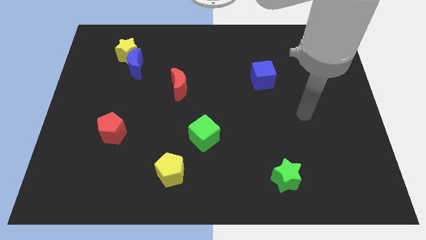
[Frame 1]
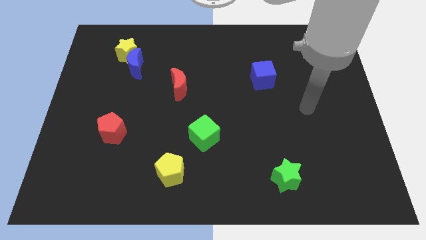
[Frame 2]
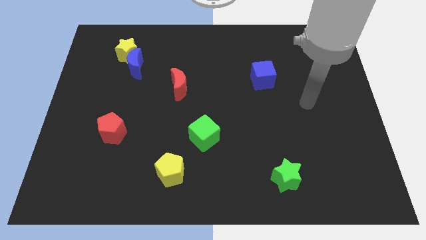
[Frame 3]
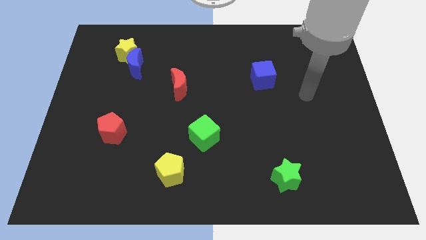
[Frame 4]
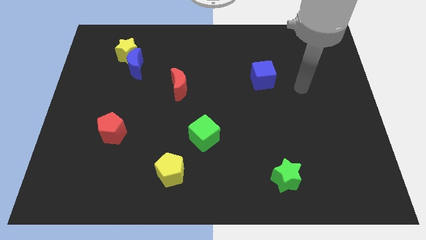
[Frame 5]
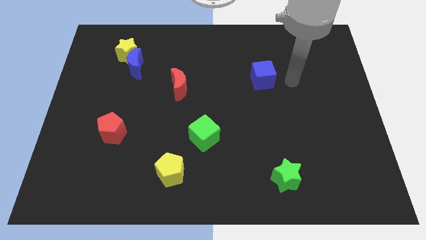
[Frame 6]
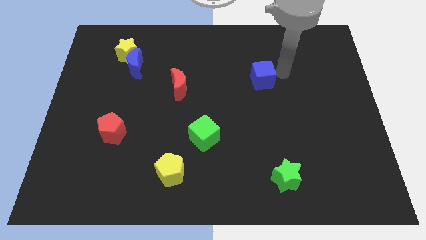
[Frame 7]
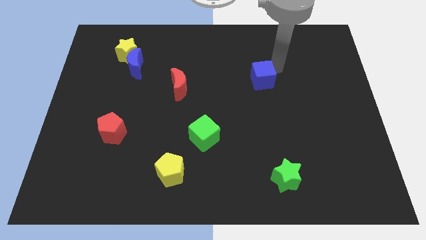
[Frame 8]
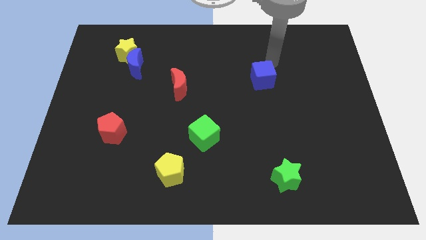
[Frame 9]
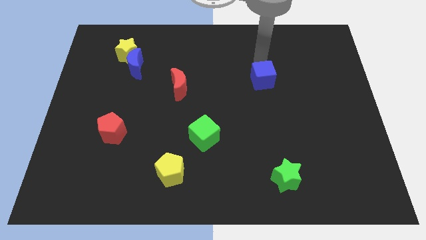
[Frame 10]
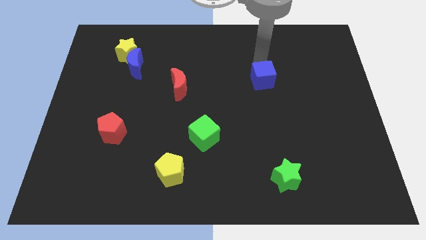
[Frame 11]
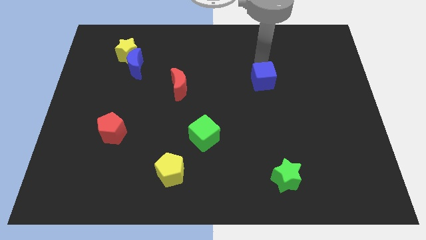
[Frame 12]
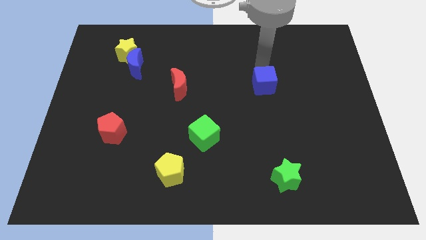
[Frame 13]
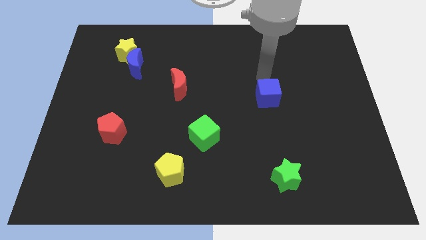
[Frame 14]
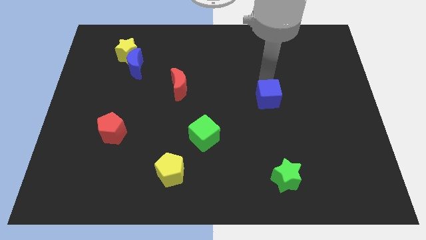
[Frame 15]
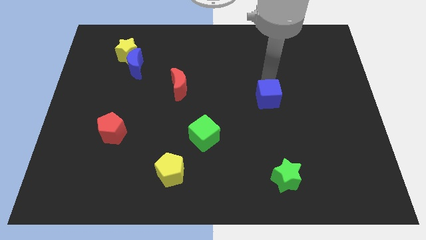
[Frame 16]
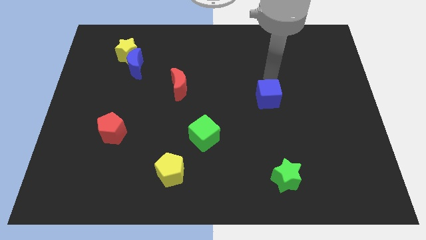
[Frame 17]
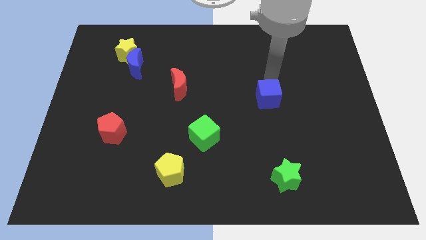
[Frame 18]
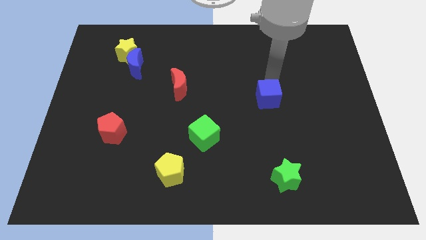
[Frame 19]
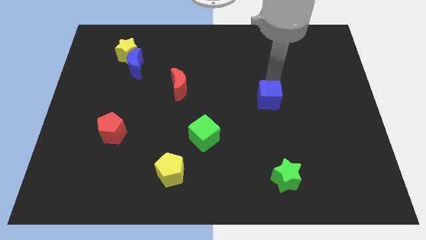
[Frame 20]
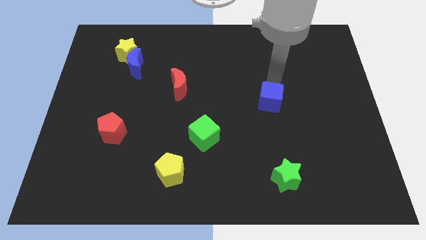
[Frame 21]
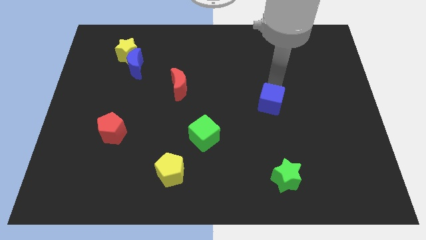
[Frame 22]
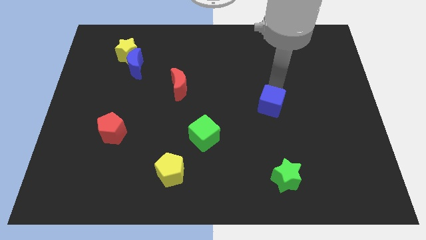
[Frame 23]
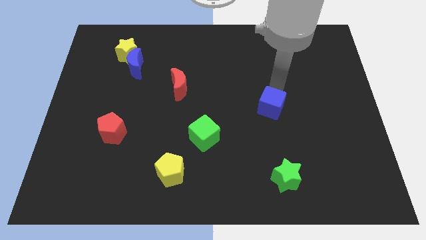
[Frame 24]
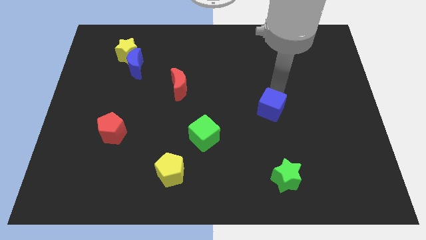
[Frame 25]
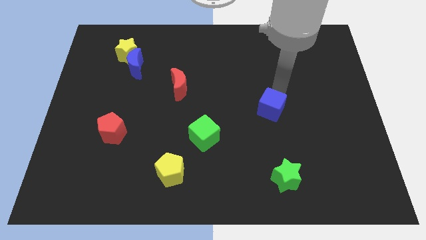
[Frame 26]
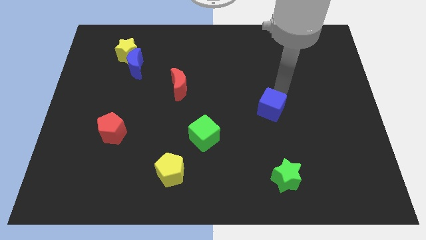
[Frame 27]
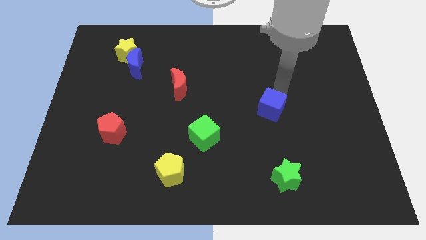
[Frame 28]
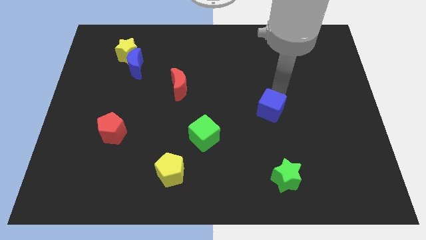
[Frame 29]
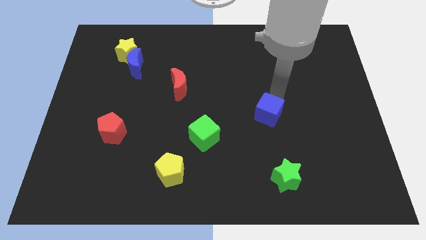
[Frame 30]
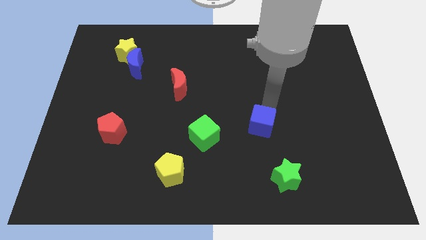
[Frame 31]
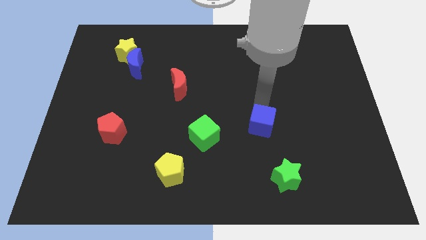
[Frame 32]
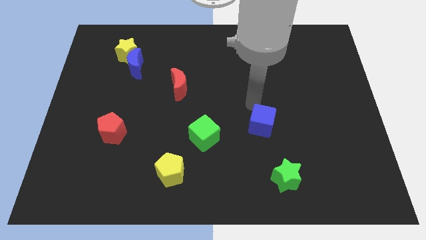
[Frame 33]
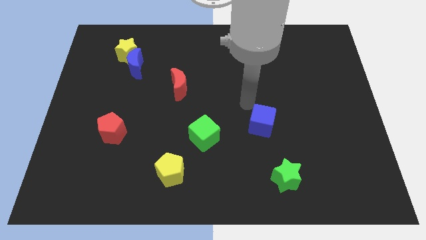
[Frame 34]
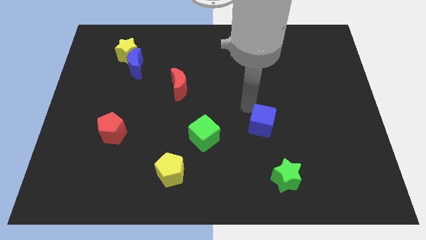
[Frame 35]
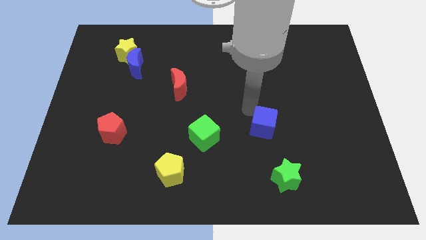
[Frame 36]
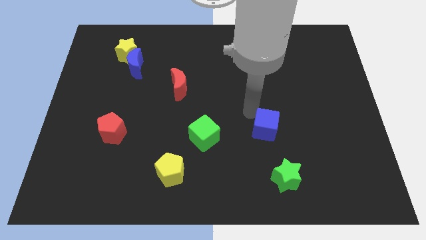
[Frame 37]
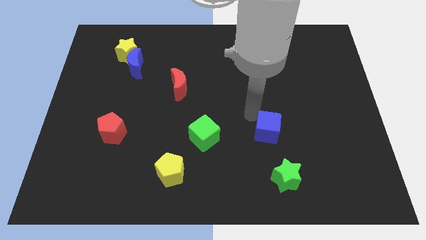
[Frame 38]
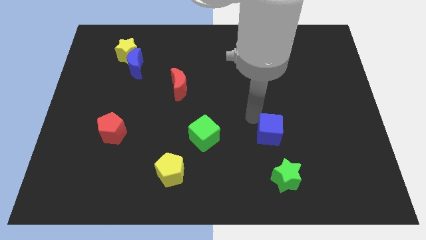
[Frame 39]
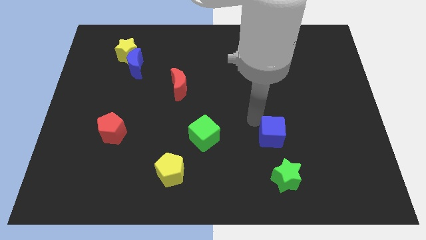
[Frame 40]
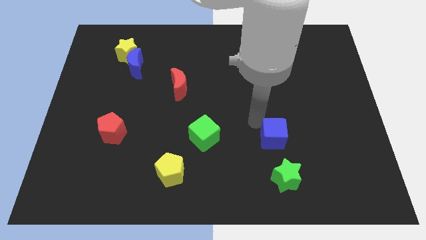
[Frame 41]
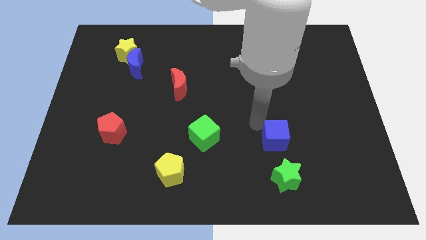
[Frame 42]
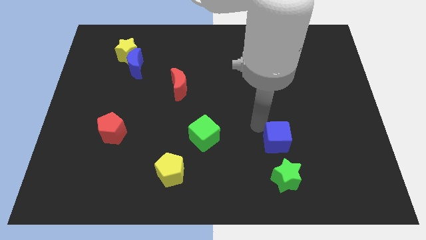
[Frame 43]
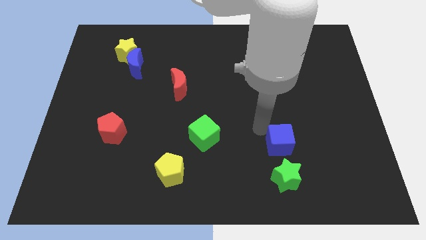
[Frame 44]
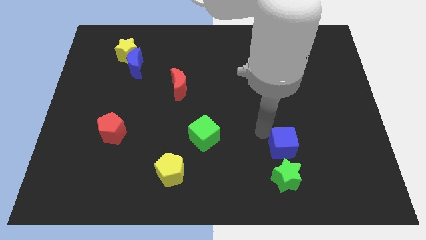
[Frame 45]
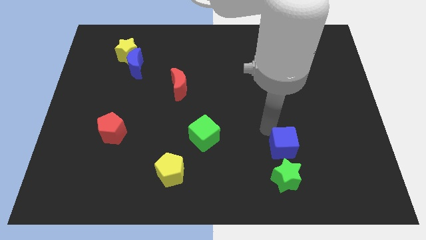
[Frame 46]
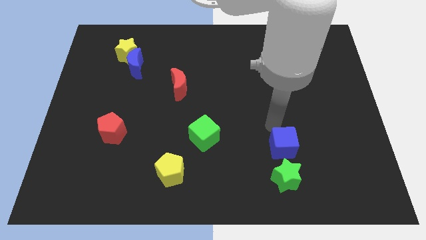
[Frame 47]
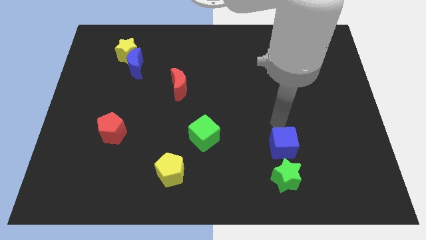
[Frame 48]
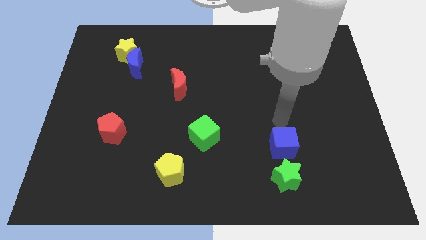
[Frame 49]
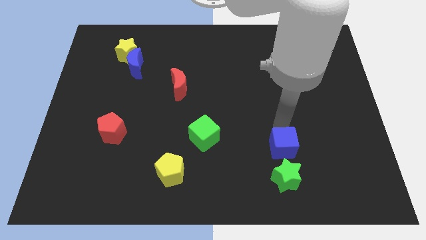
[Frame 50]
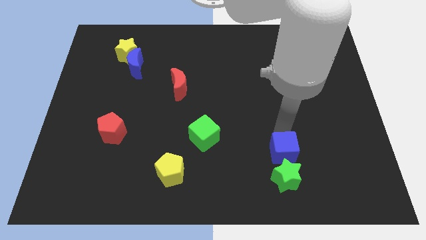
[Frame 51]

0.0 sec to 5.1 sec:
put the blue cube next to the green star

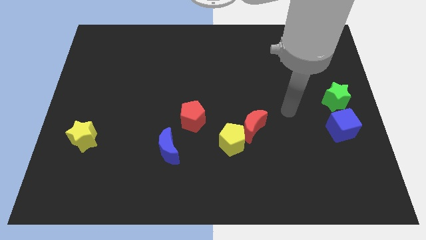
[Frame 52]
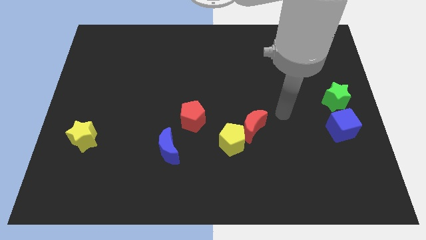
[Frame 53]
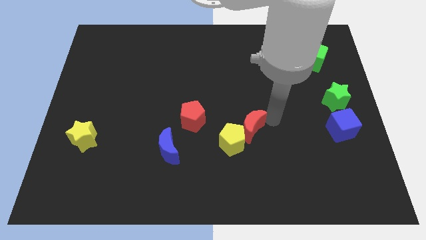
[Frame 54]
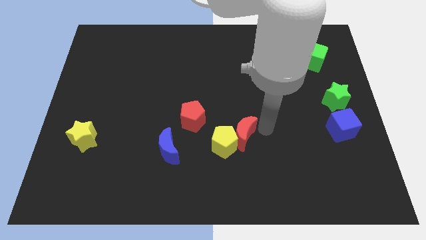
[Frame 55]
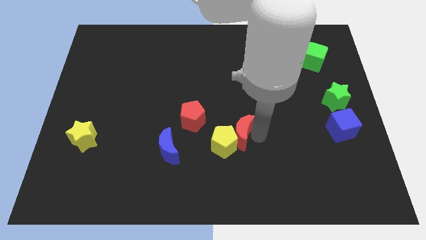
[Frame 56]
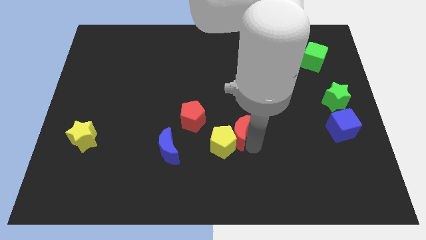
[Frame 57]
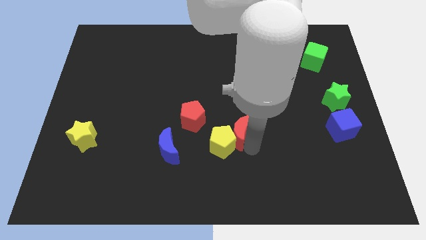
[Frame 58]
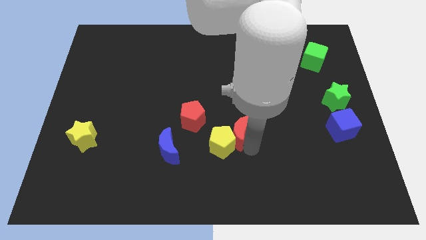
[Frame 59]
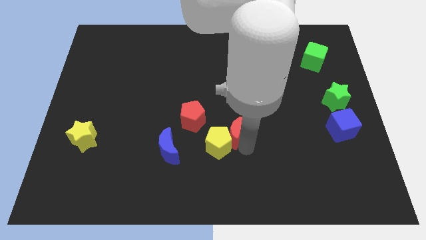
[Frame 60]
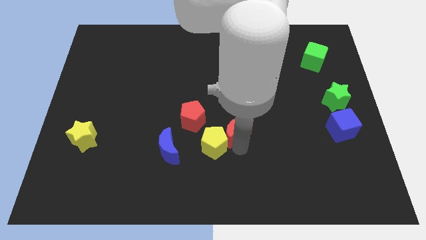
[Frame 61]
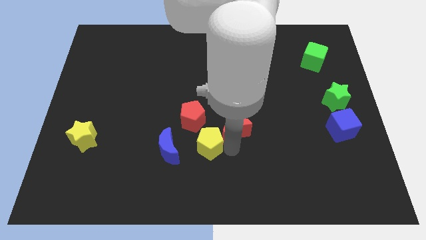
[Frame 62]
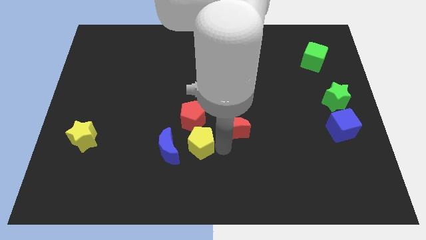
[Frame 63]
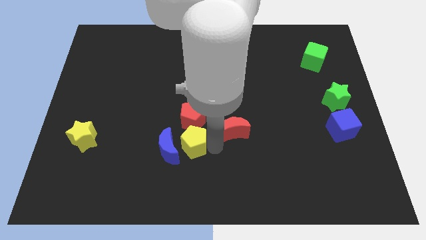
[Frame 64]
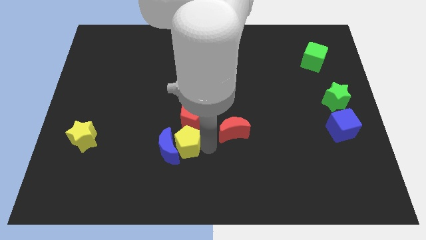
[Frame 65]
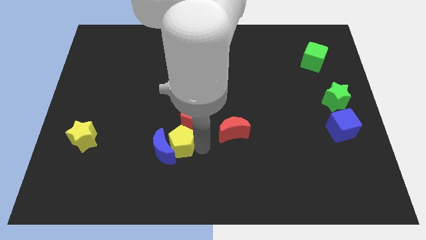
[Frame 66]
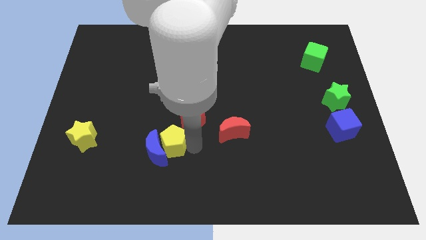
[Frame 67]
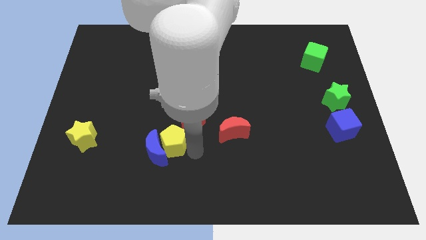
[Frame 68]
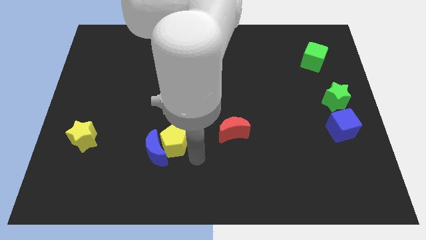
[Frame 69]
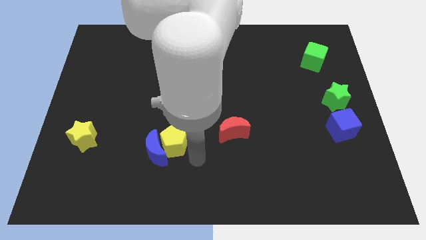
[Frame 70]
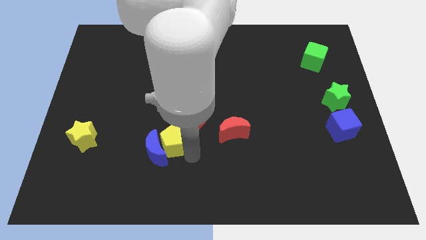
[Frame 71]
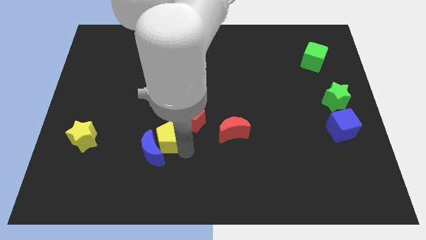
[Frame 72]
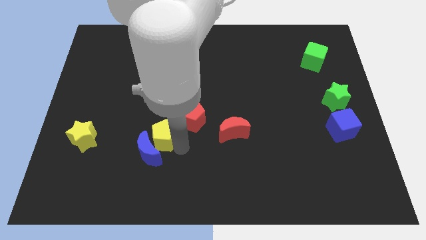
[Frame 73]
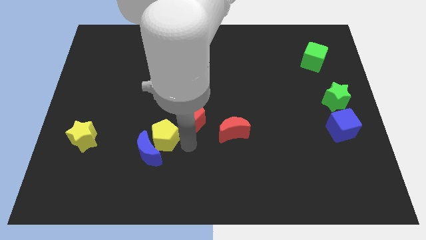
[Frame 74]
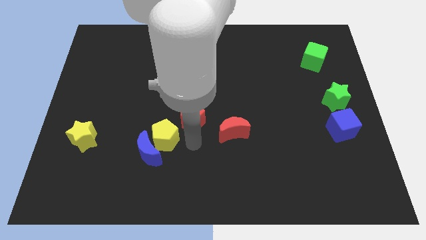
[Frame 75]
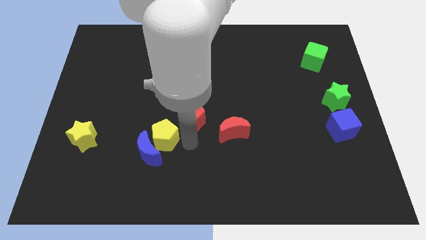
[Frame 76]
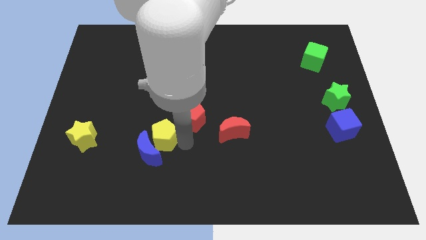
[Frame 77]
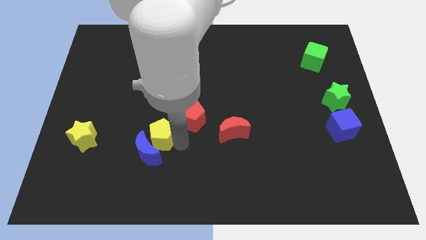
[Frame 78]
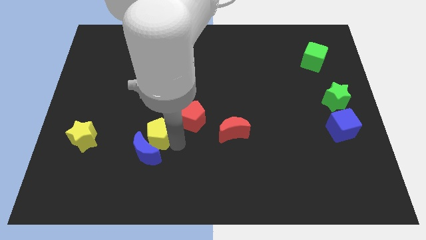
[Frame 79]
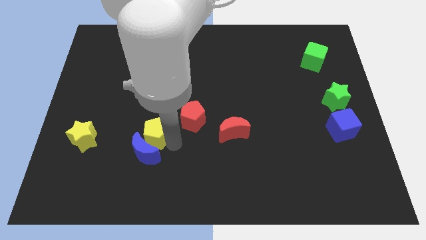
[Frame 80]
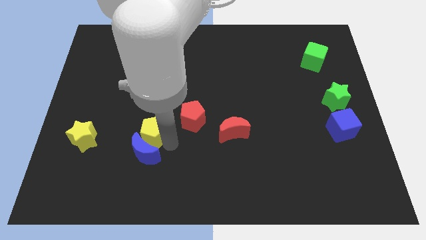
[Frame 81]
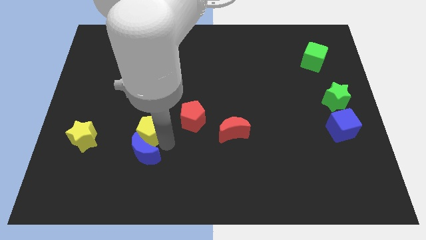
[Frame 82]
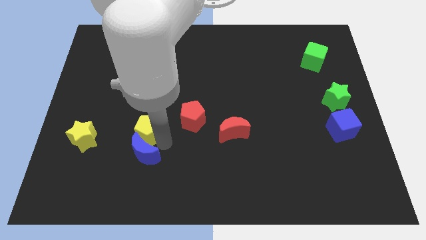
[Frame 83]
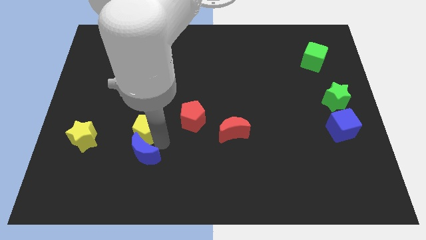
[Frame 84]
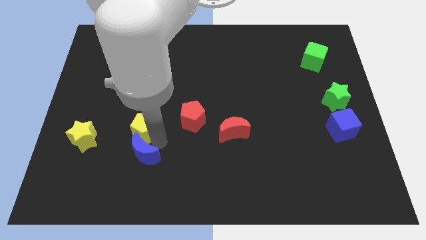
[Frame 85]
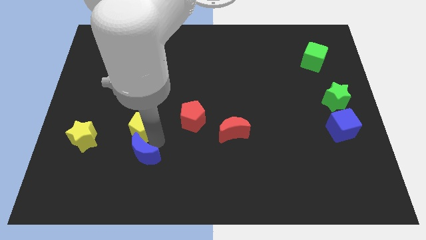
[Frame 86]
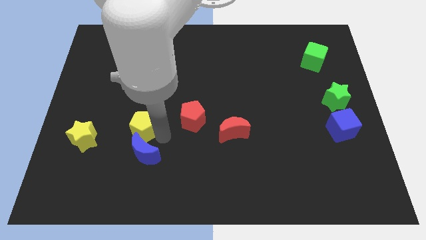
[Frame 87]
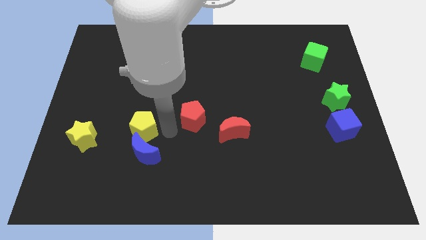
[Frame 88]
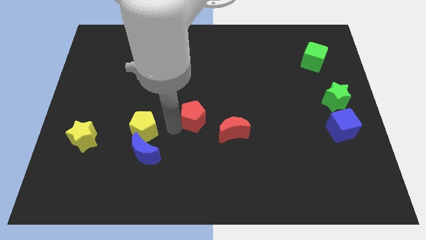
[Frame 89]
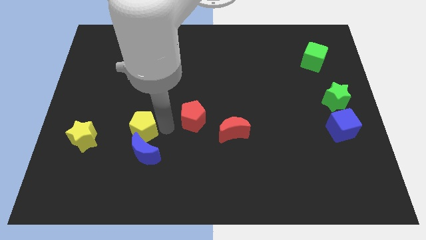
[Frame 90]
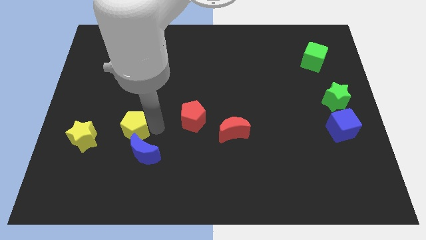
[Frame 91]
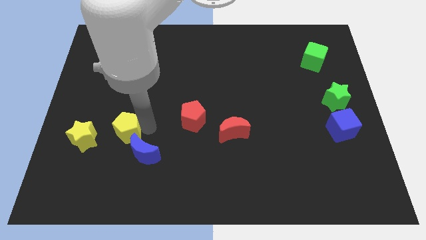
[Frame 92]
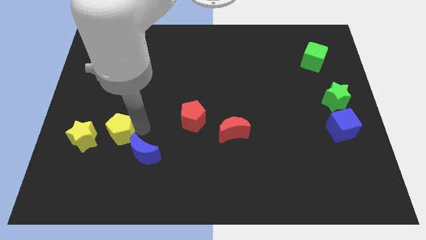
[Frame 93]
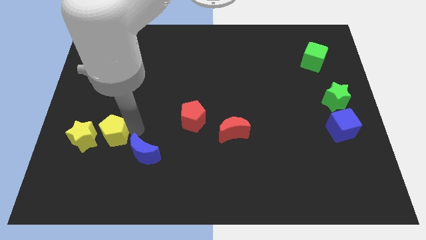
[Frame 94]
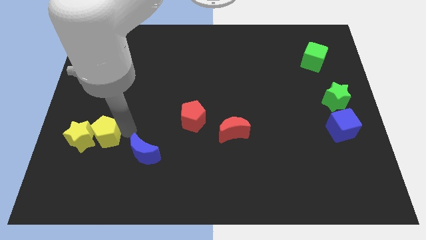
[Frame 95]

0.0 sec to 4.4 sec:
move the yellow pentagon to the yellow star
